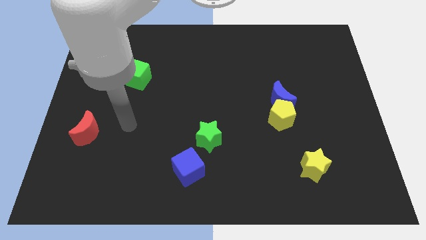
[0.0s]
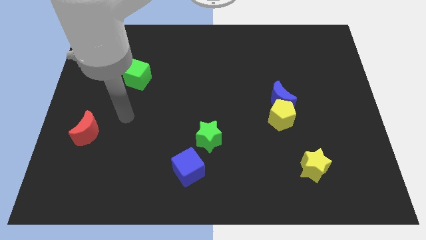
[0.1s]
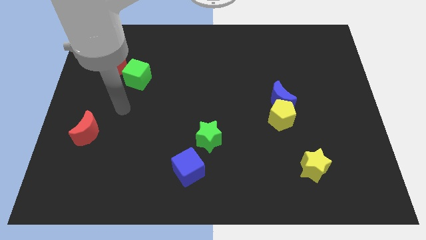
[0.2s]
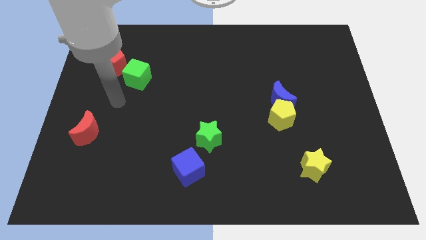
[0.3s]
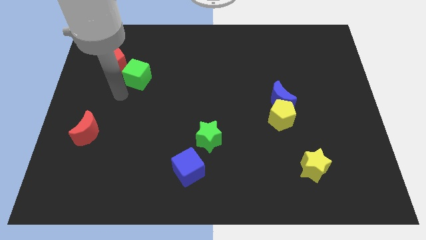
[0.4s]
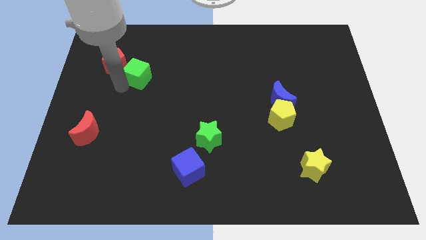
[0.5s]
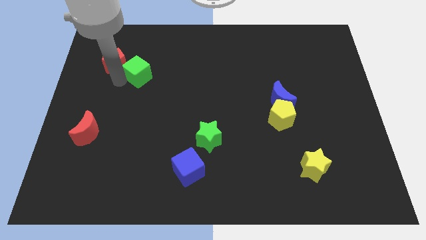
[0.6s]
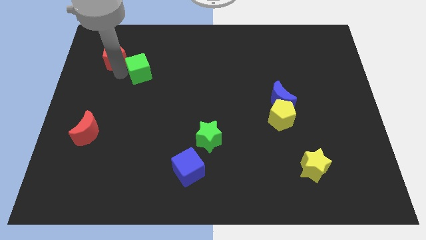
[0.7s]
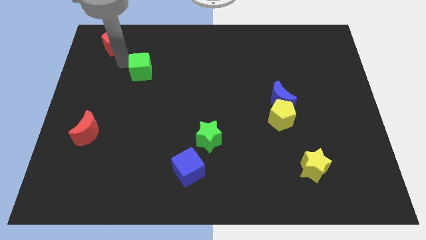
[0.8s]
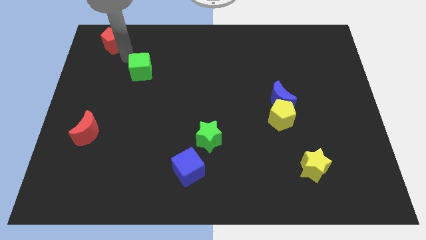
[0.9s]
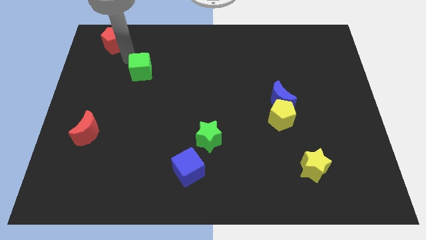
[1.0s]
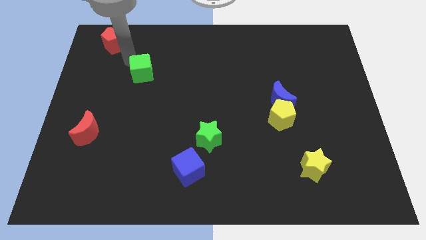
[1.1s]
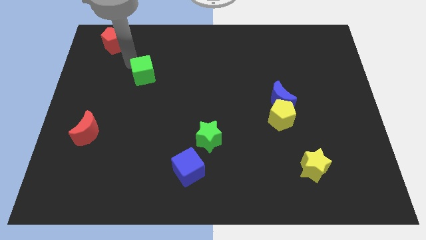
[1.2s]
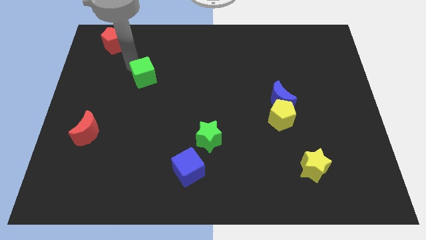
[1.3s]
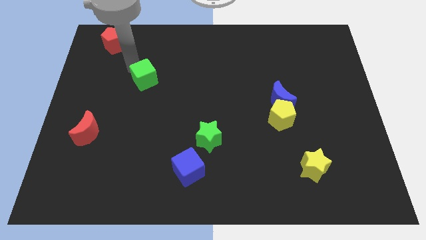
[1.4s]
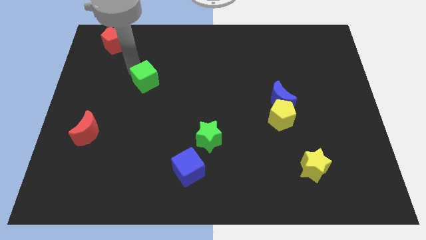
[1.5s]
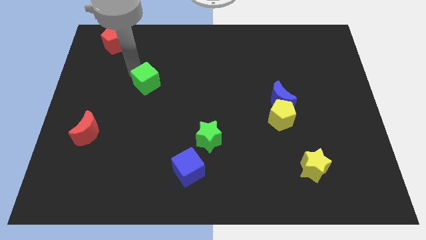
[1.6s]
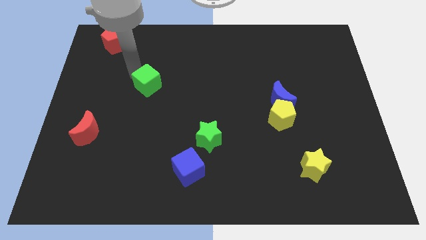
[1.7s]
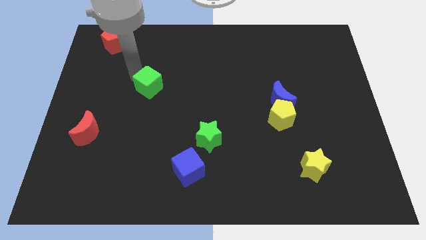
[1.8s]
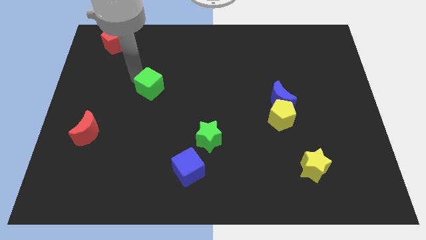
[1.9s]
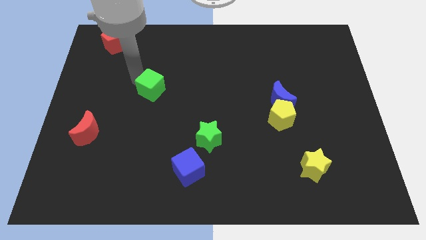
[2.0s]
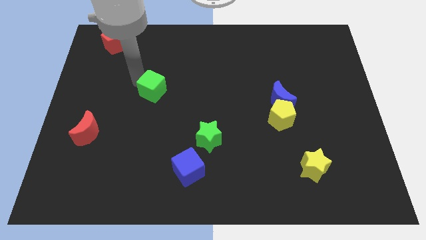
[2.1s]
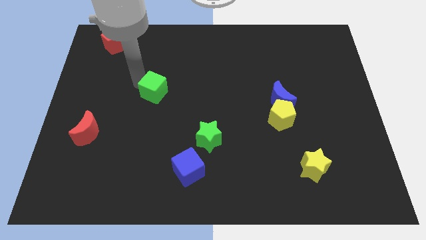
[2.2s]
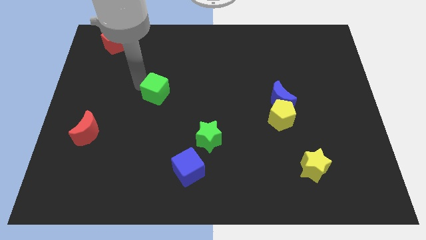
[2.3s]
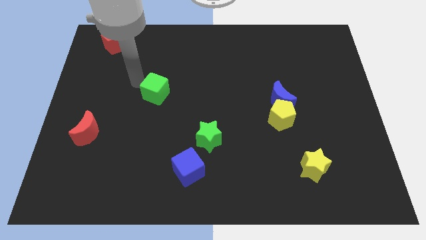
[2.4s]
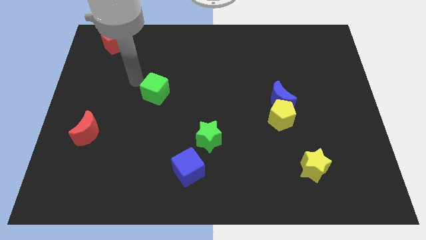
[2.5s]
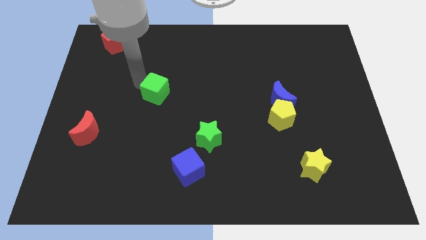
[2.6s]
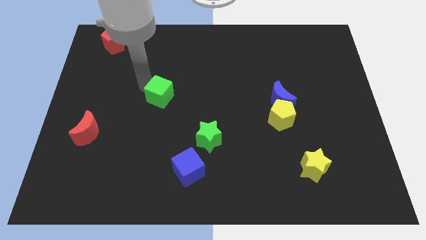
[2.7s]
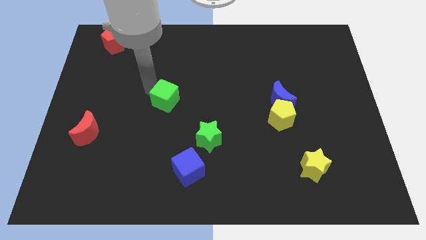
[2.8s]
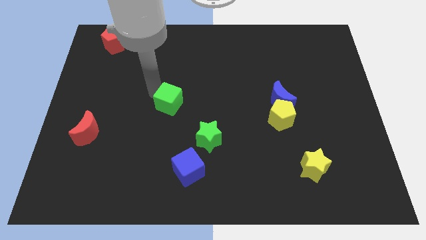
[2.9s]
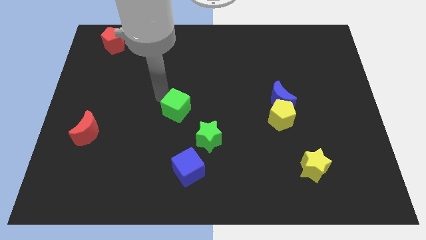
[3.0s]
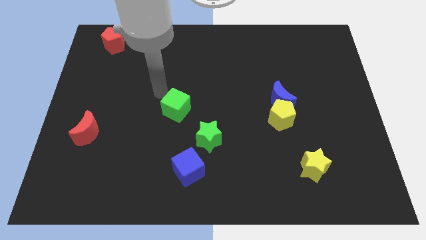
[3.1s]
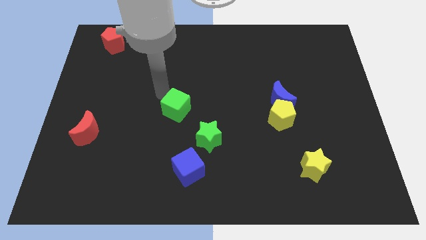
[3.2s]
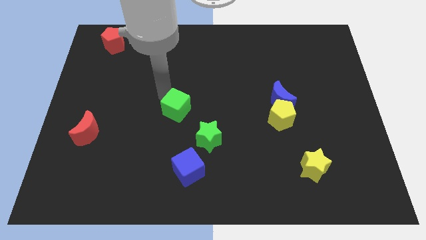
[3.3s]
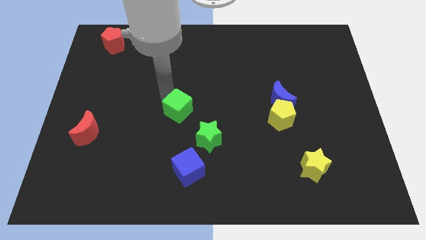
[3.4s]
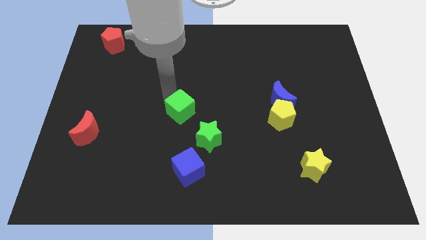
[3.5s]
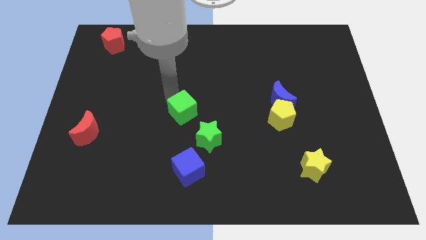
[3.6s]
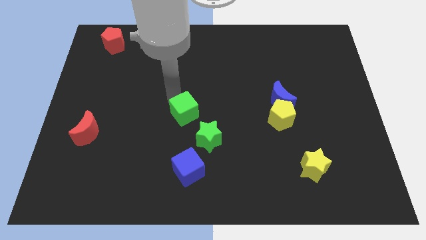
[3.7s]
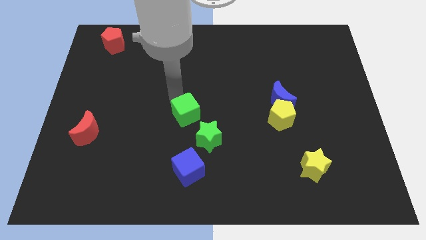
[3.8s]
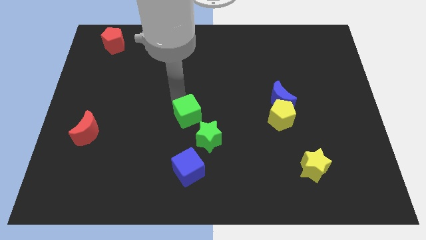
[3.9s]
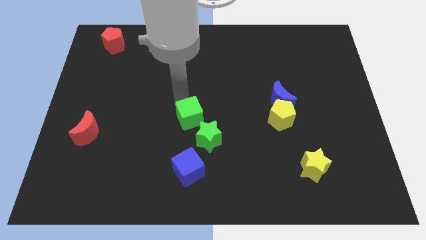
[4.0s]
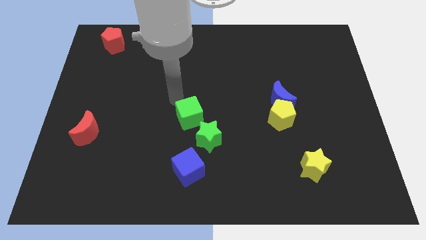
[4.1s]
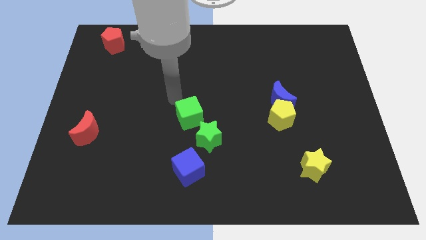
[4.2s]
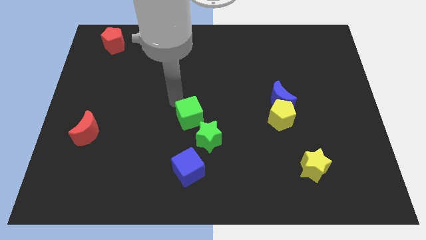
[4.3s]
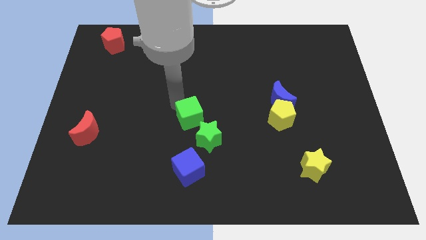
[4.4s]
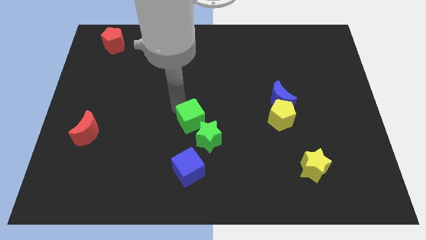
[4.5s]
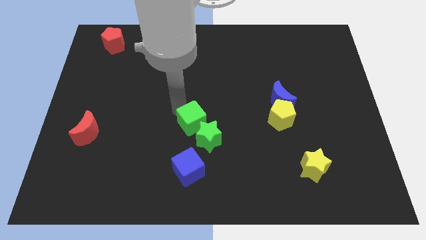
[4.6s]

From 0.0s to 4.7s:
move the green cube towards the green star

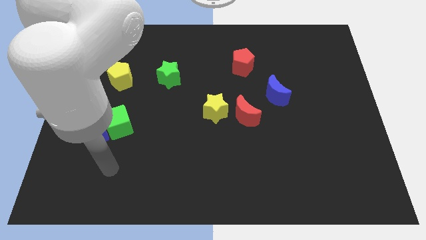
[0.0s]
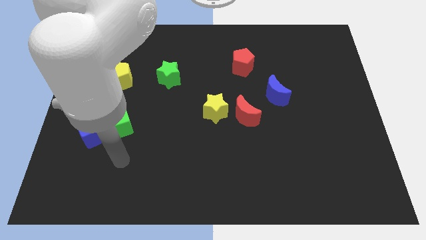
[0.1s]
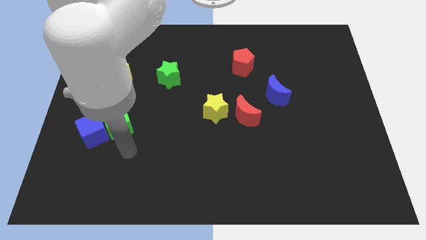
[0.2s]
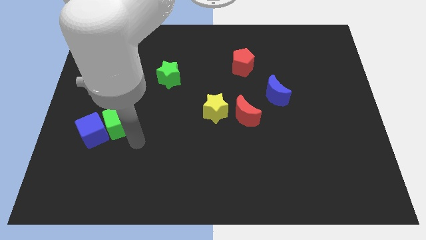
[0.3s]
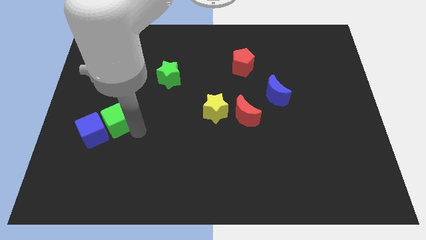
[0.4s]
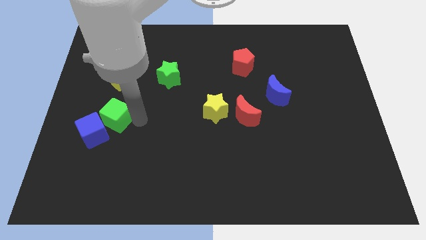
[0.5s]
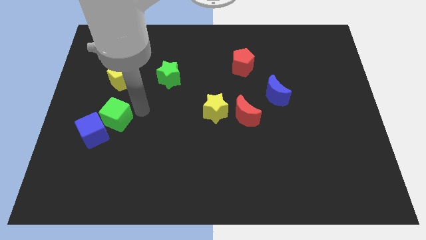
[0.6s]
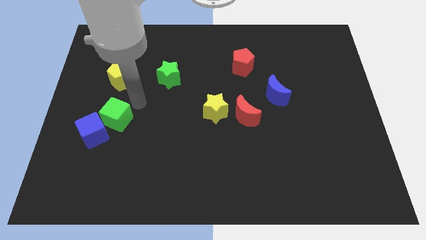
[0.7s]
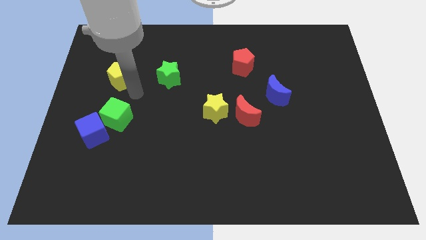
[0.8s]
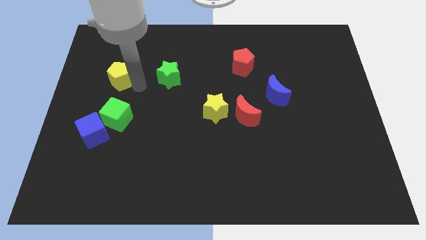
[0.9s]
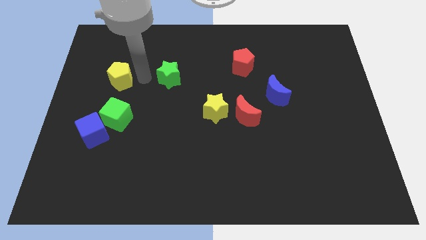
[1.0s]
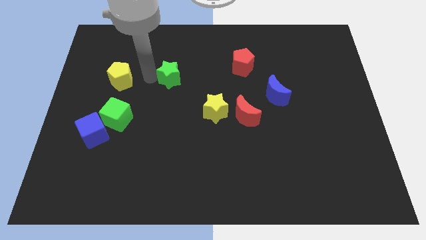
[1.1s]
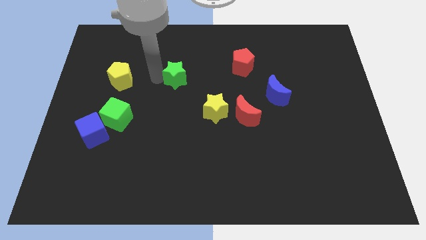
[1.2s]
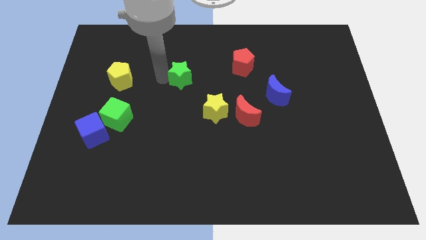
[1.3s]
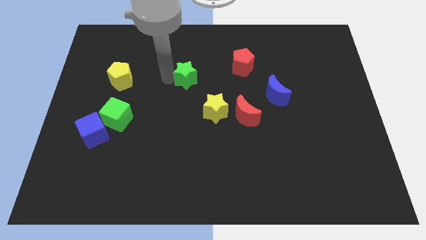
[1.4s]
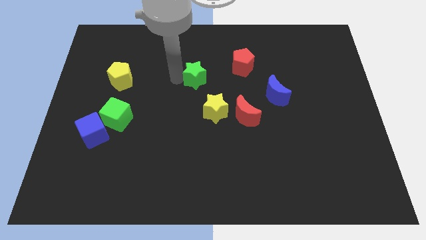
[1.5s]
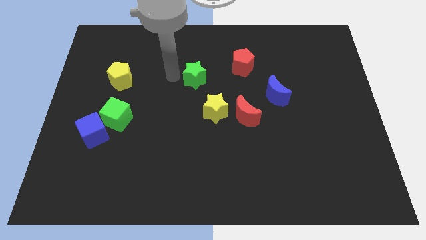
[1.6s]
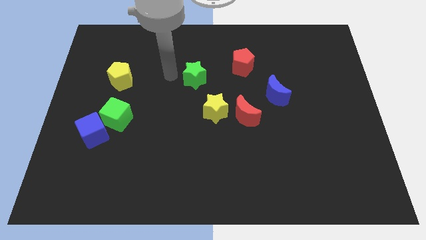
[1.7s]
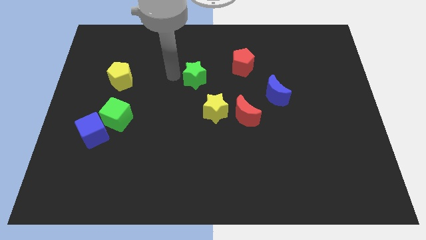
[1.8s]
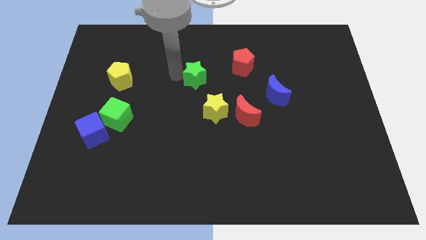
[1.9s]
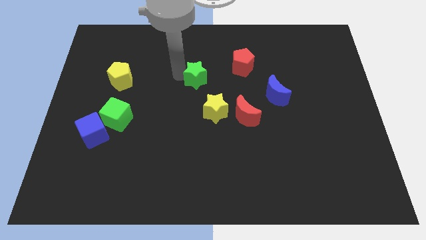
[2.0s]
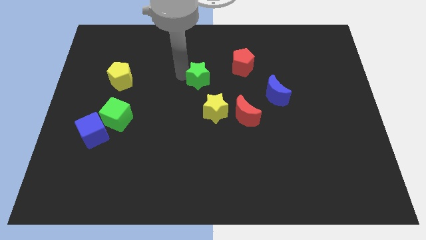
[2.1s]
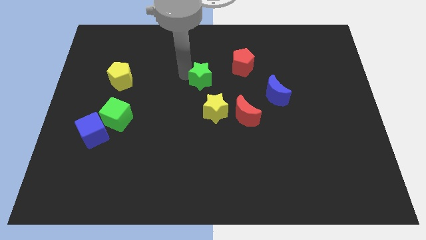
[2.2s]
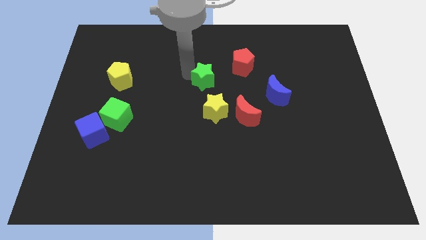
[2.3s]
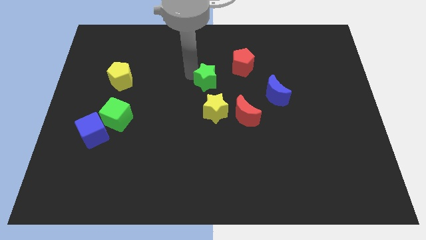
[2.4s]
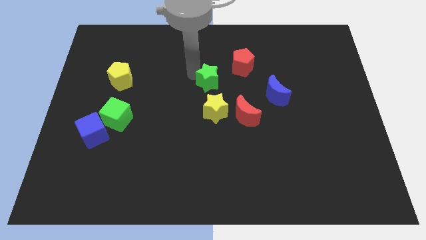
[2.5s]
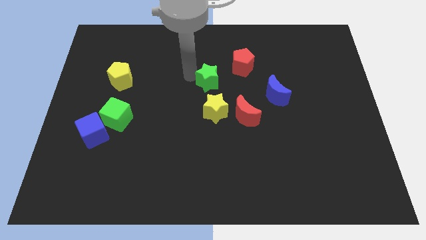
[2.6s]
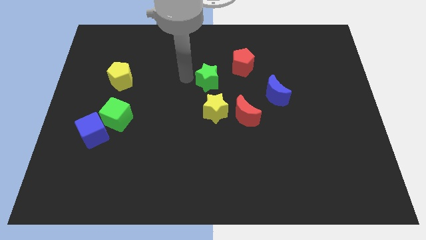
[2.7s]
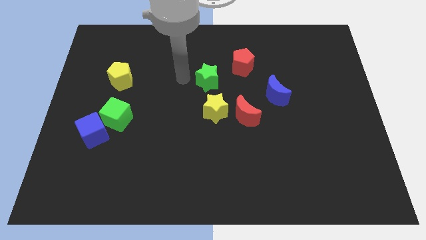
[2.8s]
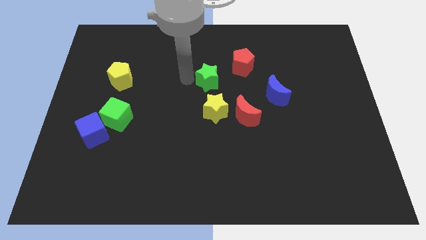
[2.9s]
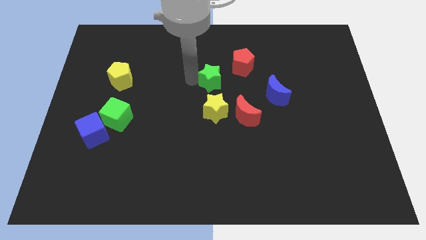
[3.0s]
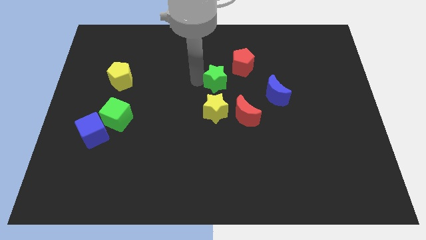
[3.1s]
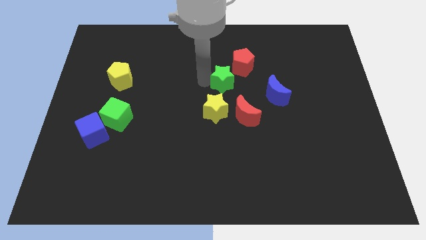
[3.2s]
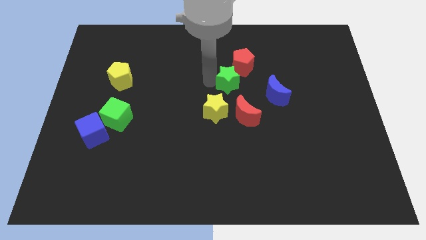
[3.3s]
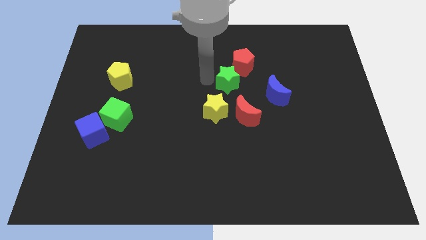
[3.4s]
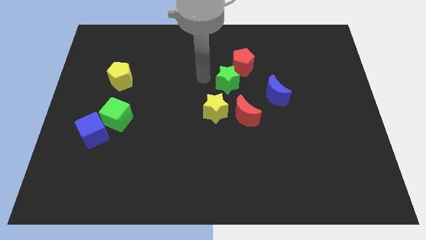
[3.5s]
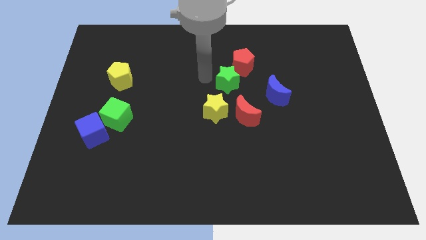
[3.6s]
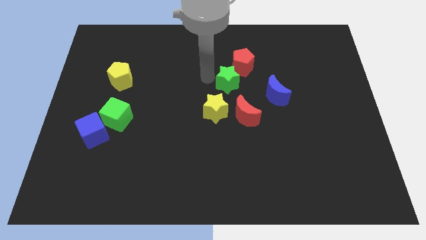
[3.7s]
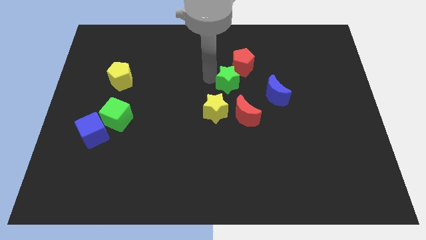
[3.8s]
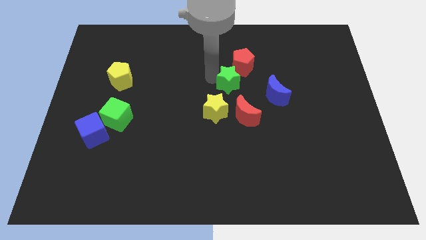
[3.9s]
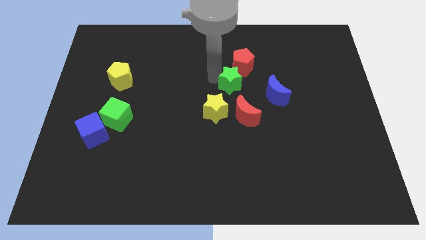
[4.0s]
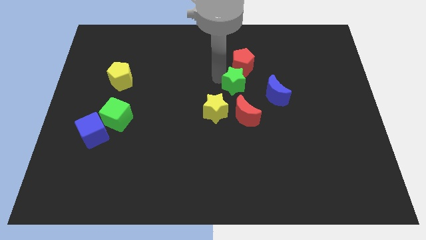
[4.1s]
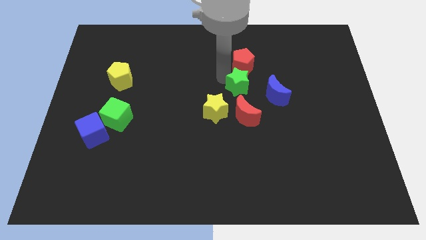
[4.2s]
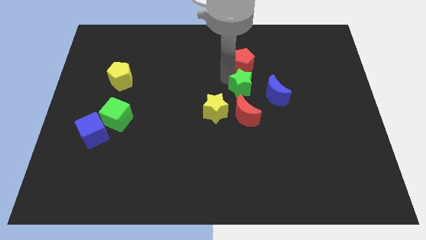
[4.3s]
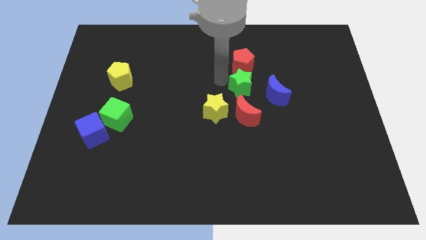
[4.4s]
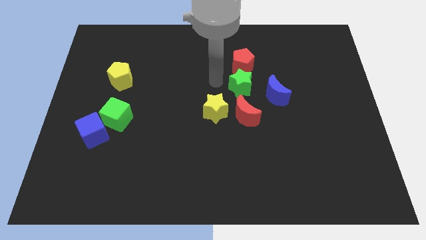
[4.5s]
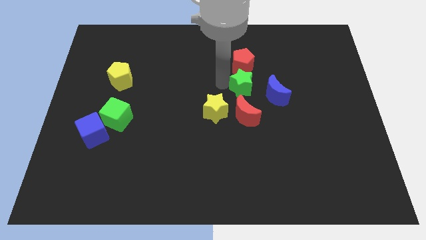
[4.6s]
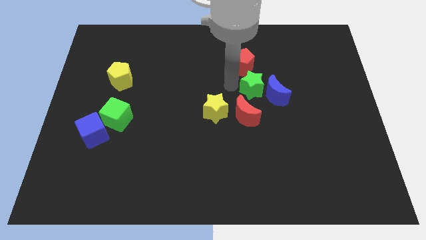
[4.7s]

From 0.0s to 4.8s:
move the green star towards the blue moon
